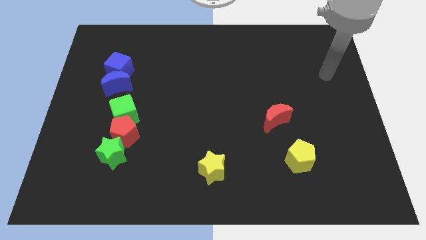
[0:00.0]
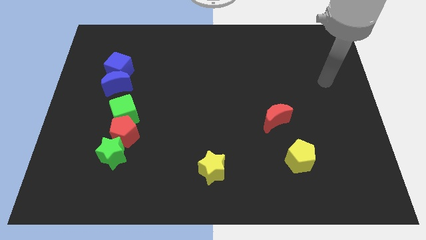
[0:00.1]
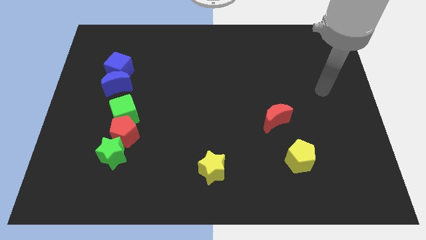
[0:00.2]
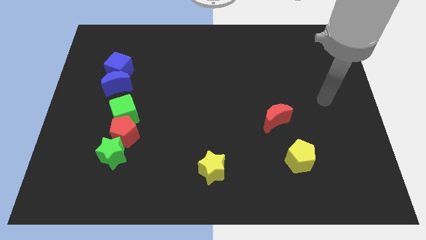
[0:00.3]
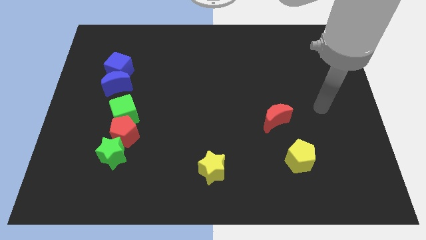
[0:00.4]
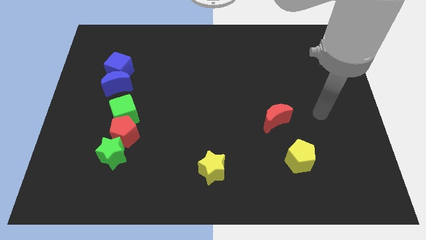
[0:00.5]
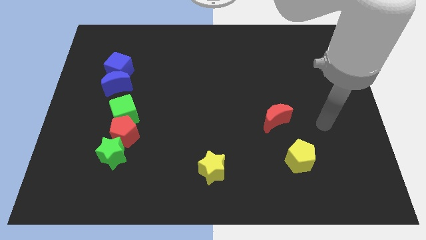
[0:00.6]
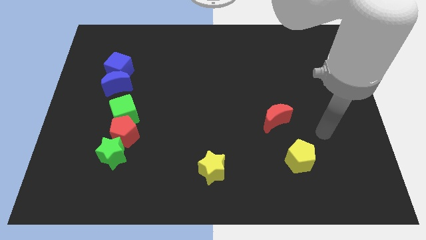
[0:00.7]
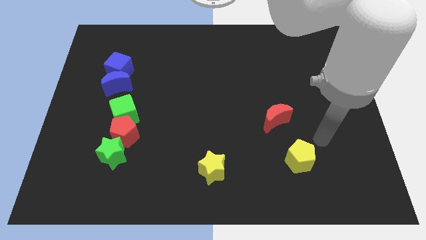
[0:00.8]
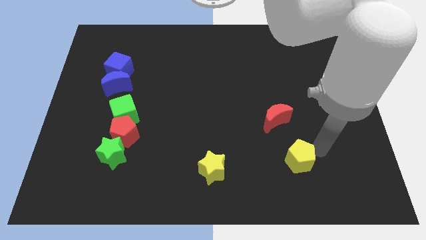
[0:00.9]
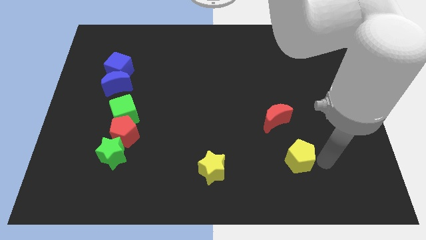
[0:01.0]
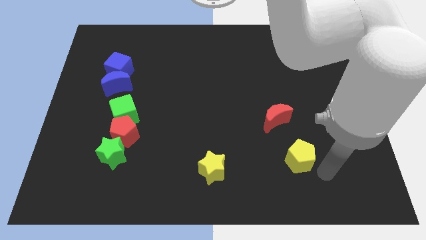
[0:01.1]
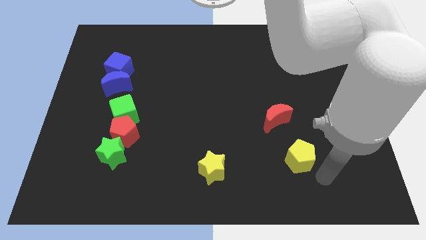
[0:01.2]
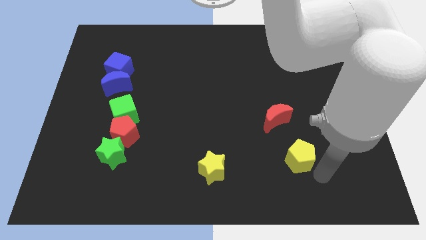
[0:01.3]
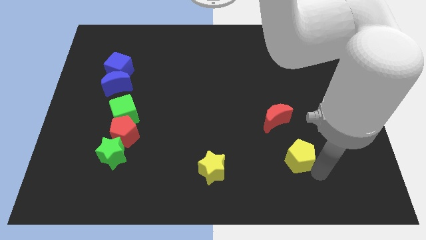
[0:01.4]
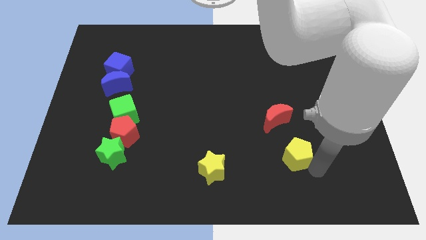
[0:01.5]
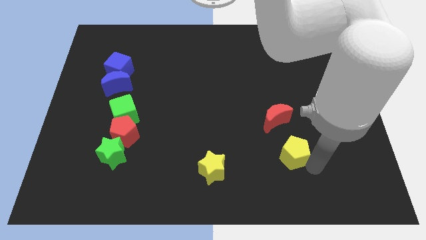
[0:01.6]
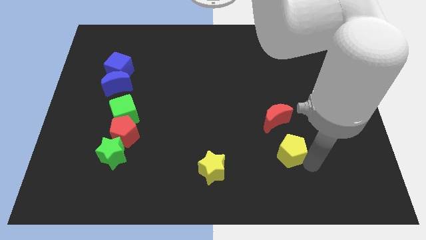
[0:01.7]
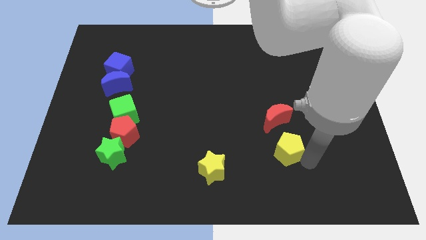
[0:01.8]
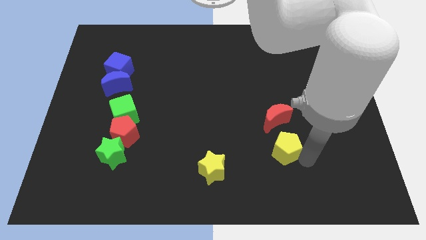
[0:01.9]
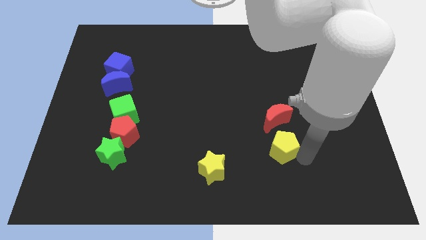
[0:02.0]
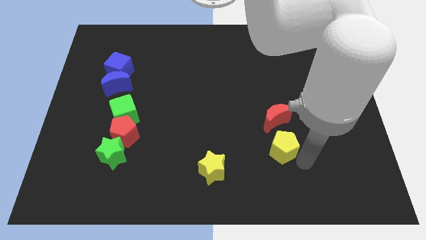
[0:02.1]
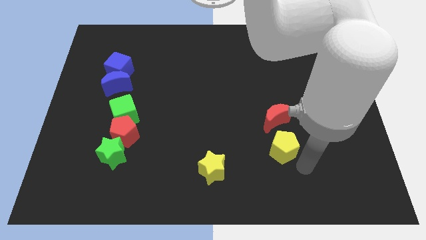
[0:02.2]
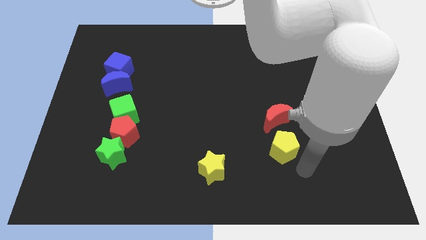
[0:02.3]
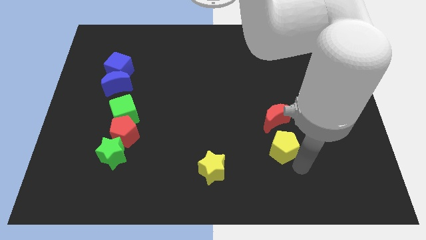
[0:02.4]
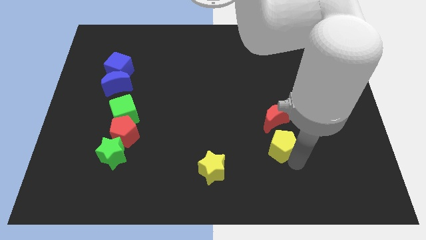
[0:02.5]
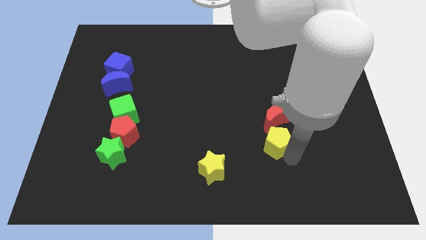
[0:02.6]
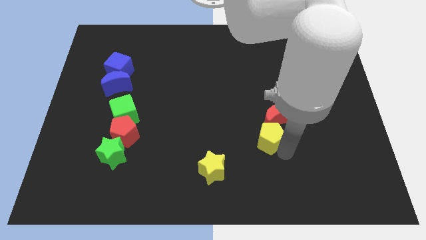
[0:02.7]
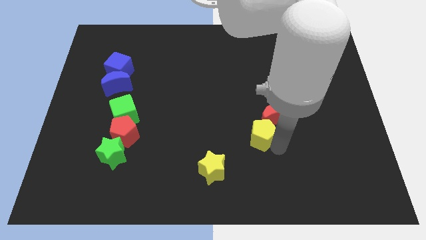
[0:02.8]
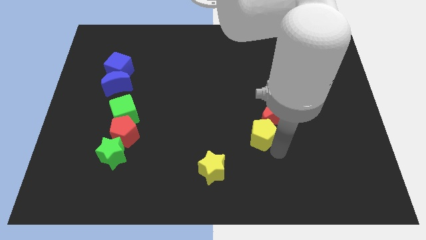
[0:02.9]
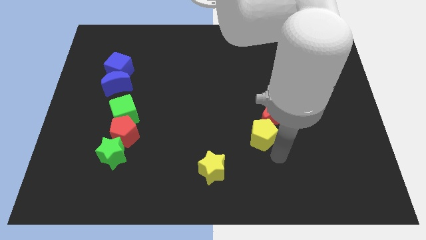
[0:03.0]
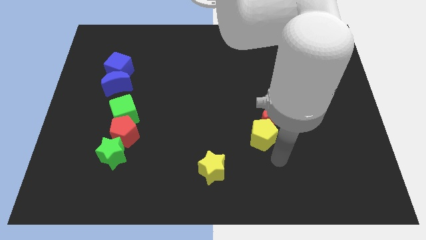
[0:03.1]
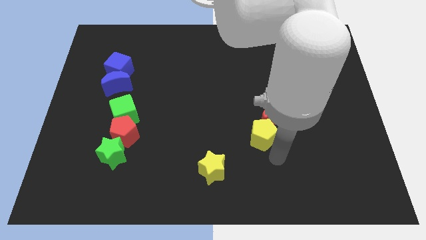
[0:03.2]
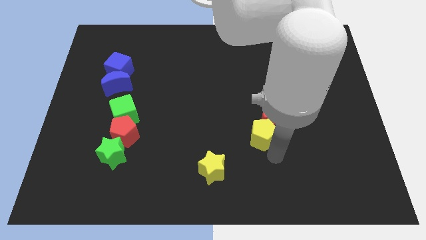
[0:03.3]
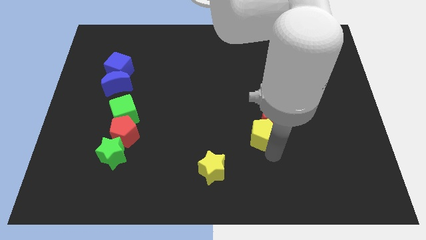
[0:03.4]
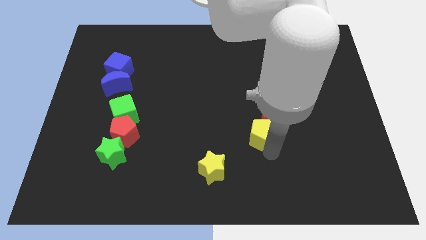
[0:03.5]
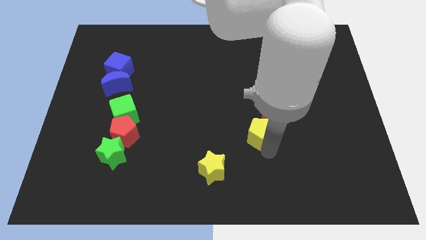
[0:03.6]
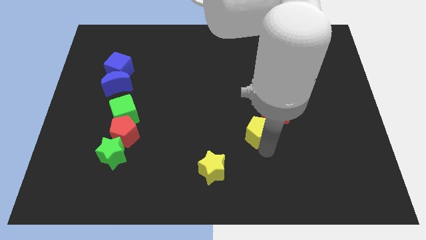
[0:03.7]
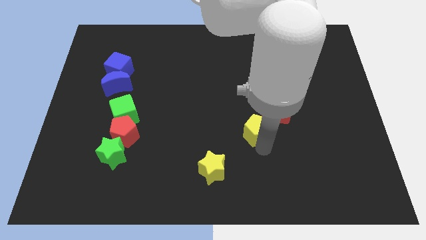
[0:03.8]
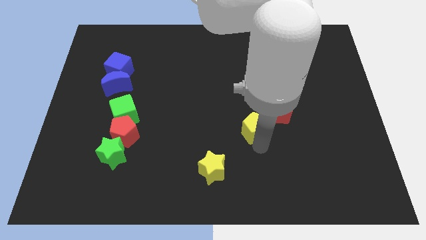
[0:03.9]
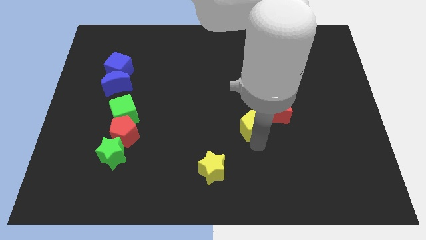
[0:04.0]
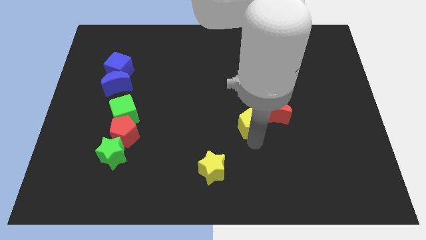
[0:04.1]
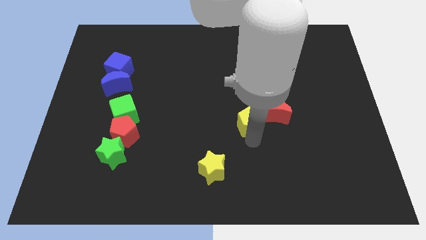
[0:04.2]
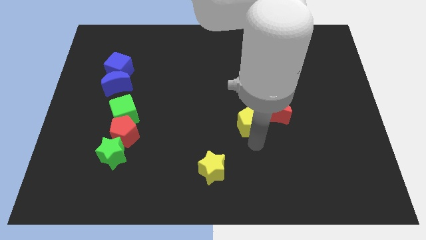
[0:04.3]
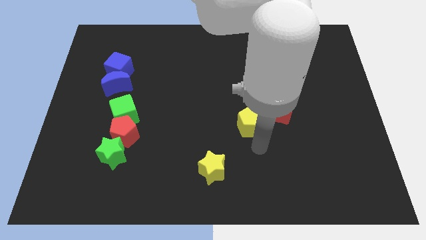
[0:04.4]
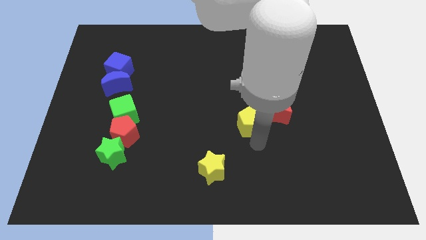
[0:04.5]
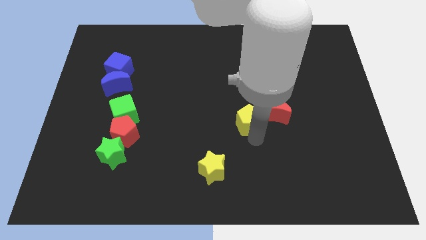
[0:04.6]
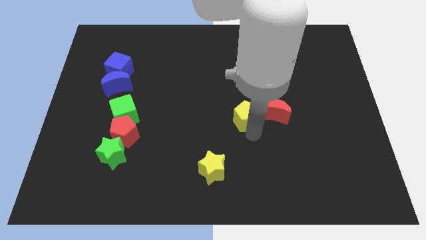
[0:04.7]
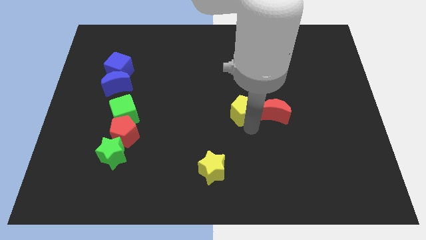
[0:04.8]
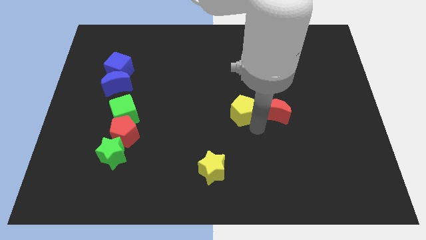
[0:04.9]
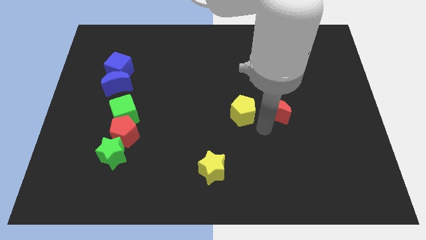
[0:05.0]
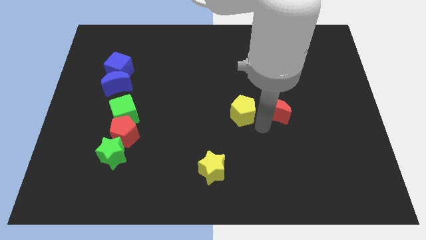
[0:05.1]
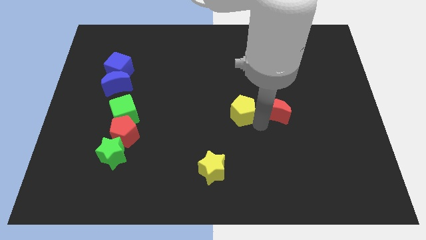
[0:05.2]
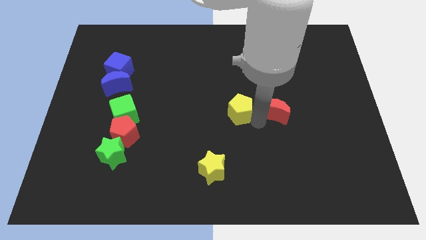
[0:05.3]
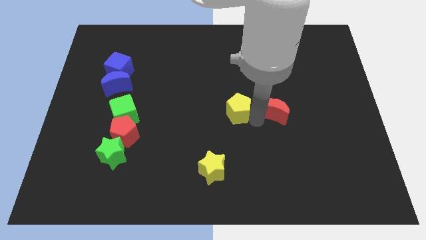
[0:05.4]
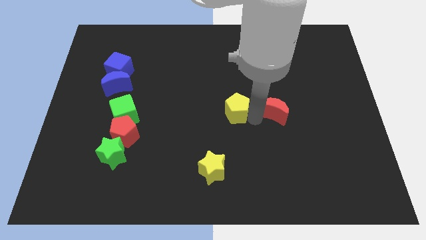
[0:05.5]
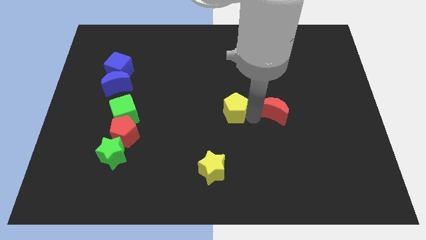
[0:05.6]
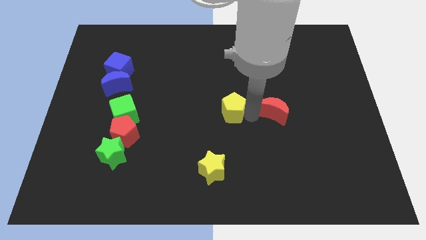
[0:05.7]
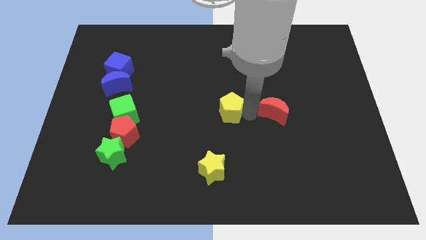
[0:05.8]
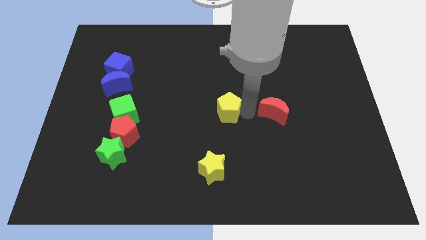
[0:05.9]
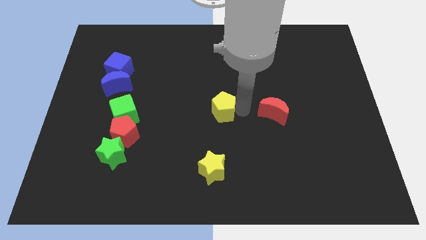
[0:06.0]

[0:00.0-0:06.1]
slide the yellow pentagon up and then to the left

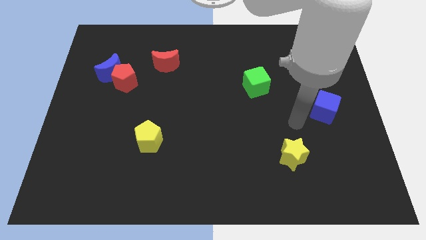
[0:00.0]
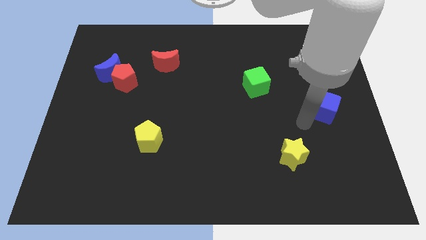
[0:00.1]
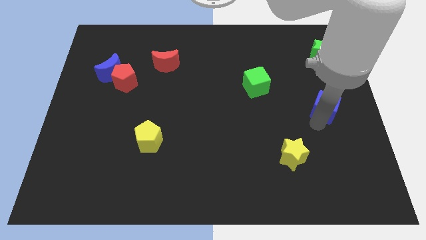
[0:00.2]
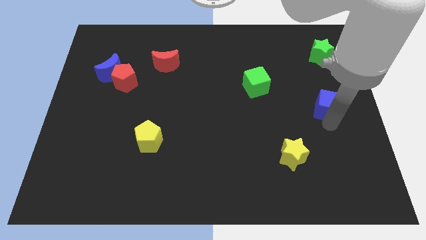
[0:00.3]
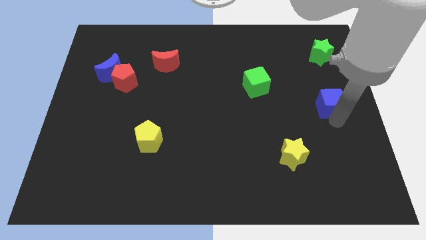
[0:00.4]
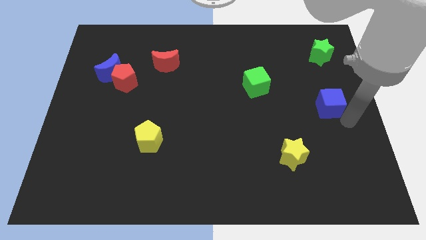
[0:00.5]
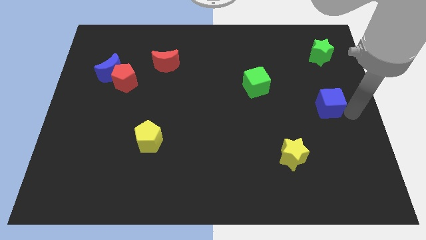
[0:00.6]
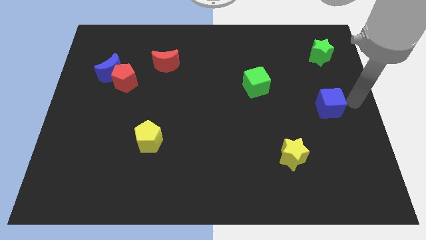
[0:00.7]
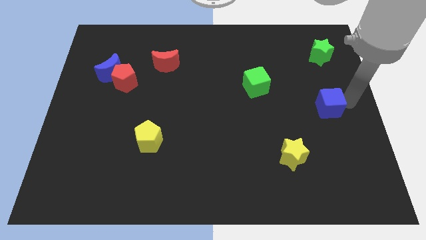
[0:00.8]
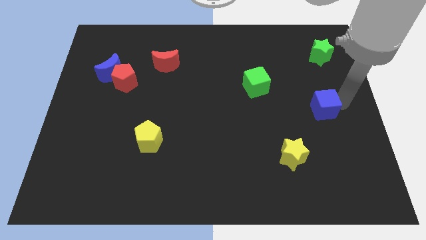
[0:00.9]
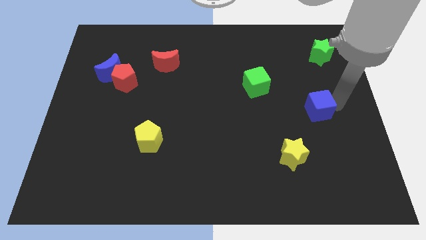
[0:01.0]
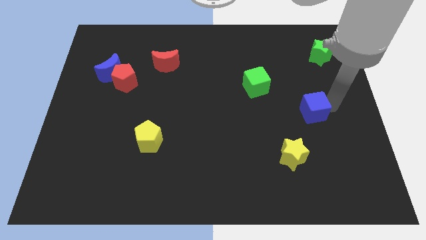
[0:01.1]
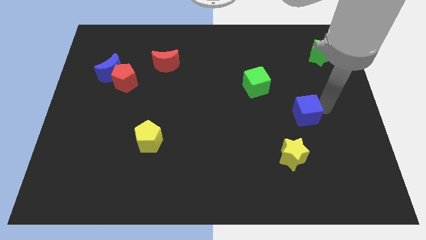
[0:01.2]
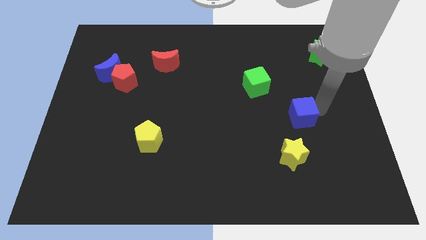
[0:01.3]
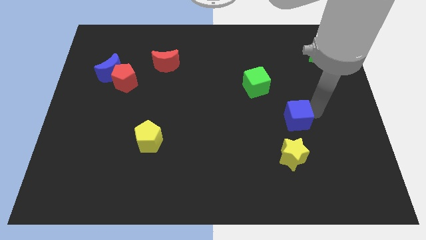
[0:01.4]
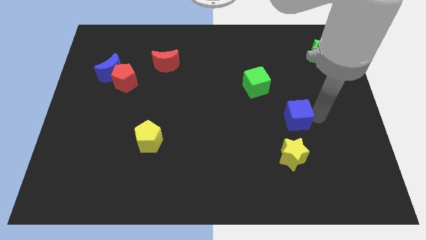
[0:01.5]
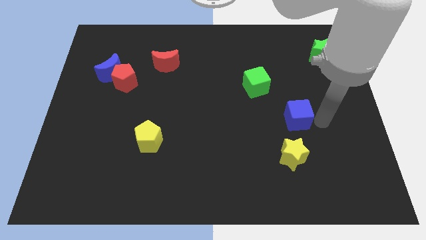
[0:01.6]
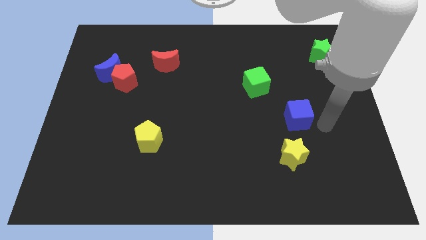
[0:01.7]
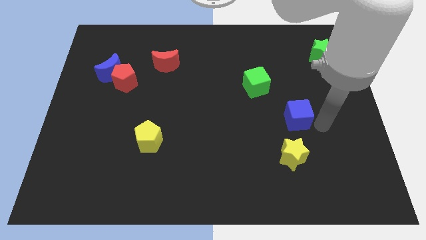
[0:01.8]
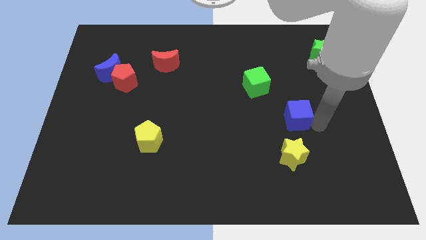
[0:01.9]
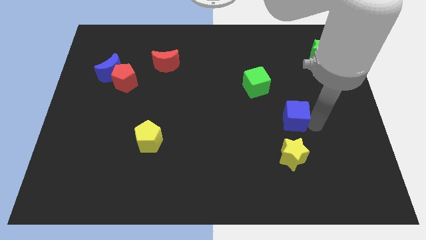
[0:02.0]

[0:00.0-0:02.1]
slide the blue cube left somewhat

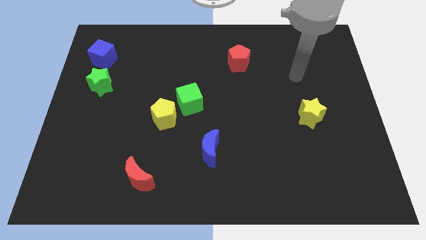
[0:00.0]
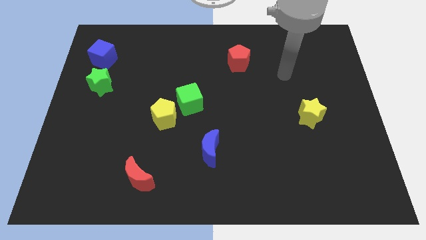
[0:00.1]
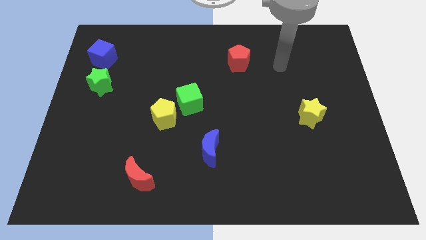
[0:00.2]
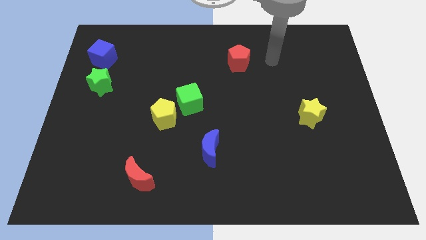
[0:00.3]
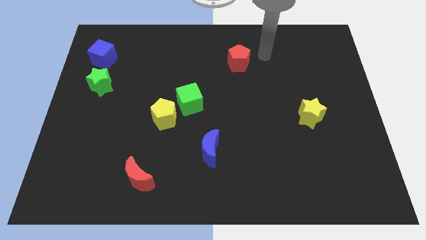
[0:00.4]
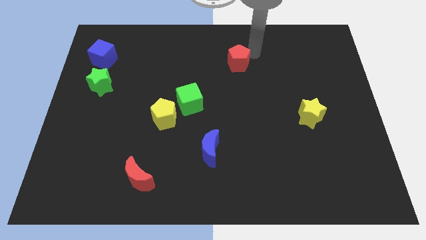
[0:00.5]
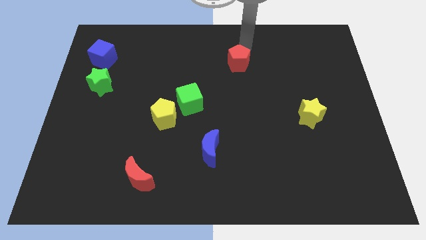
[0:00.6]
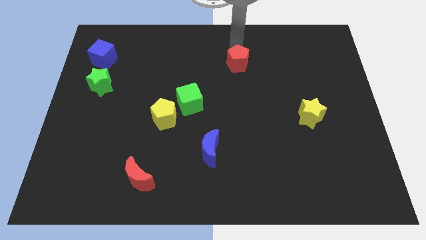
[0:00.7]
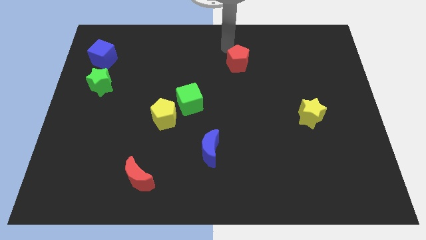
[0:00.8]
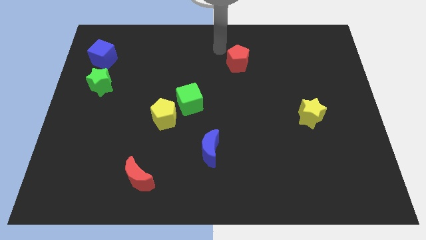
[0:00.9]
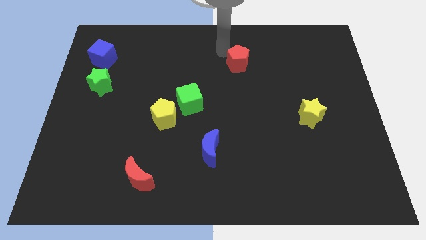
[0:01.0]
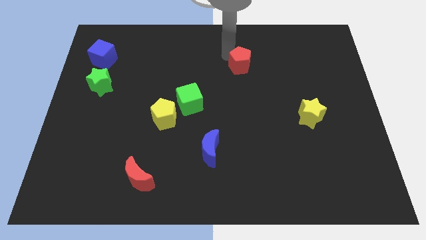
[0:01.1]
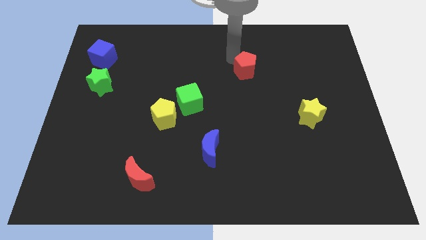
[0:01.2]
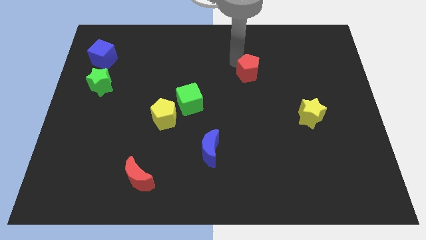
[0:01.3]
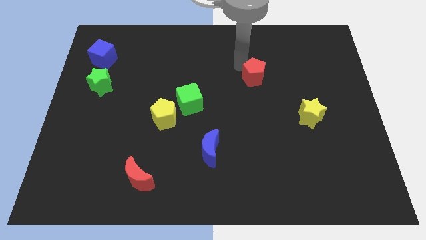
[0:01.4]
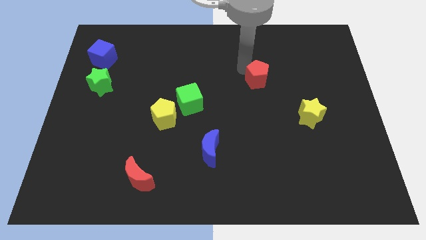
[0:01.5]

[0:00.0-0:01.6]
slightly push the red pentagon diagonally downwards and right
